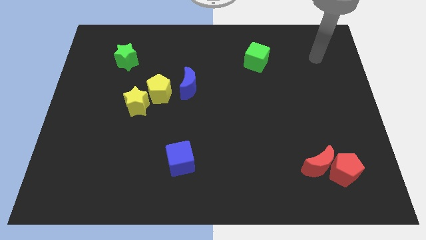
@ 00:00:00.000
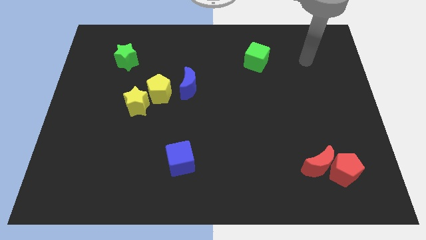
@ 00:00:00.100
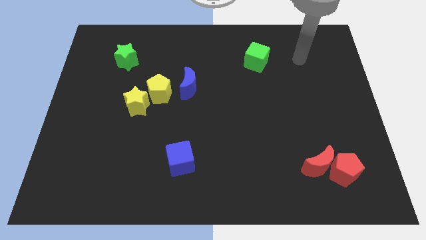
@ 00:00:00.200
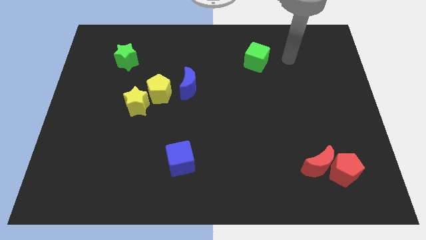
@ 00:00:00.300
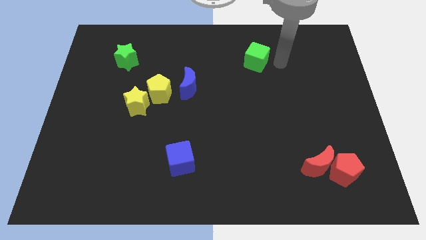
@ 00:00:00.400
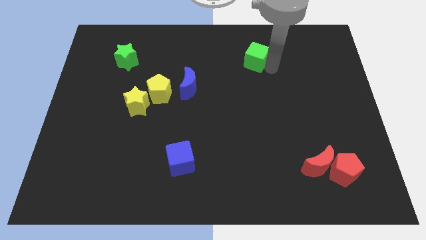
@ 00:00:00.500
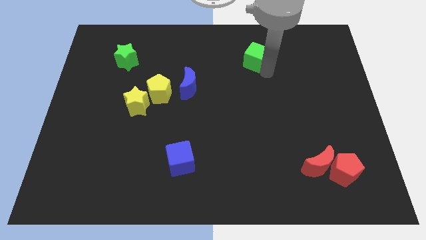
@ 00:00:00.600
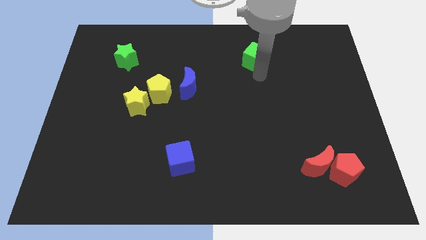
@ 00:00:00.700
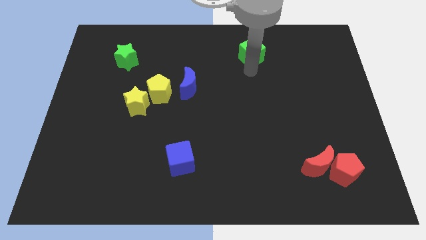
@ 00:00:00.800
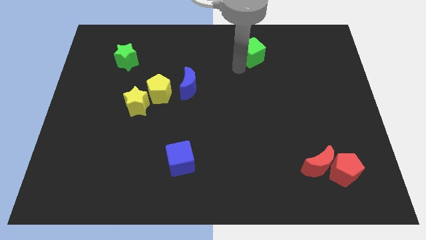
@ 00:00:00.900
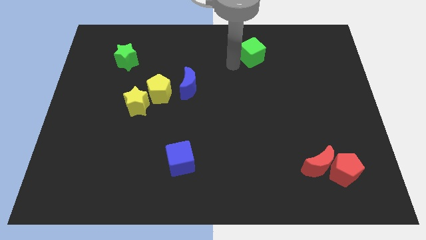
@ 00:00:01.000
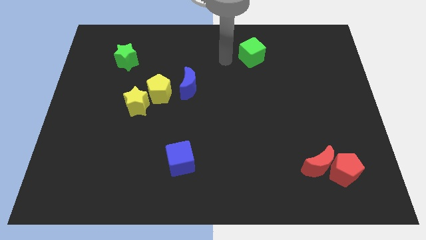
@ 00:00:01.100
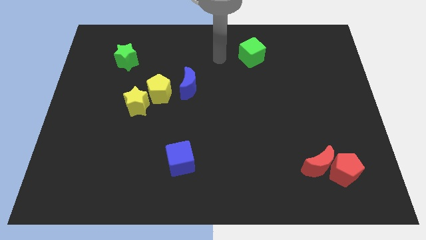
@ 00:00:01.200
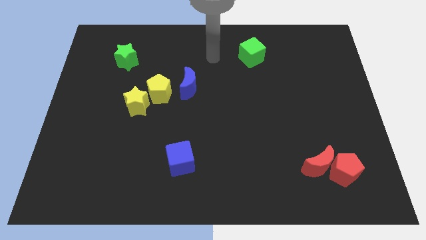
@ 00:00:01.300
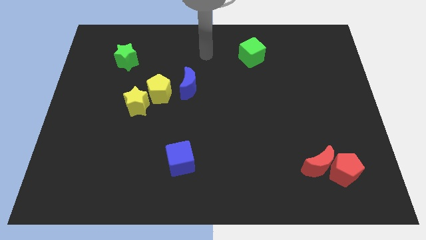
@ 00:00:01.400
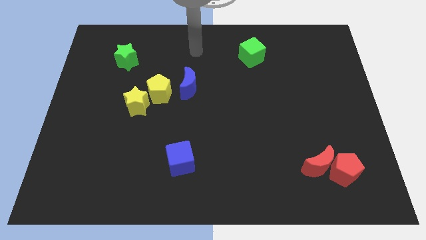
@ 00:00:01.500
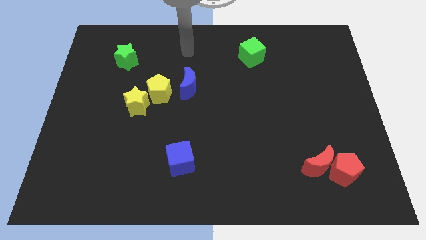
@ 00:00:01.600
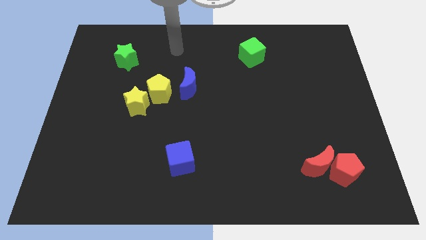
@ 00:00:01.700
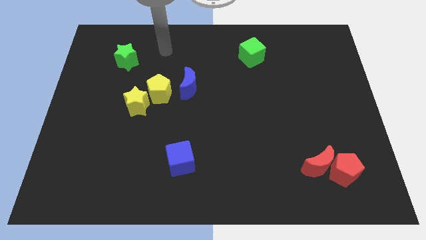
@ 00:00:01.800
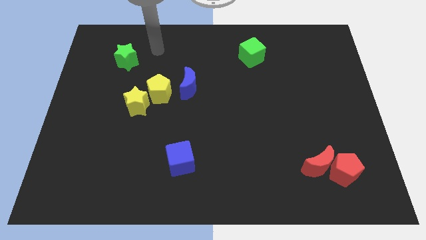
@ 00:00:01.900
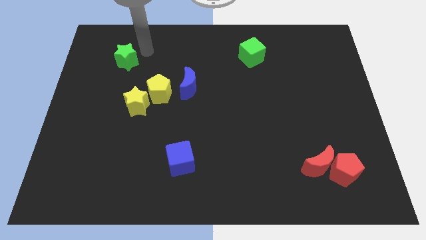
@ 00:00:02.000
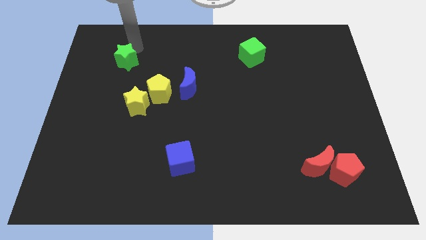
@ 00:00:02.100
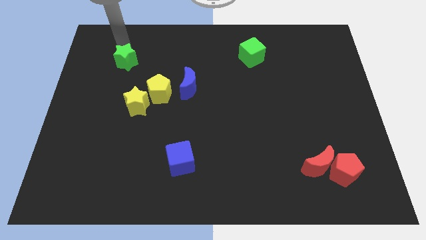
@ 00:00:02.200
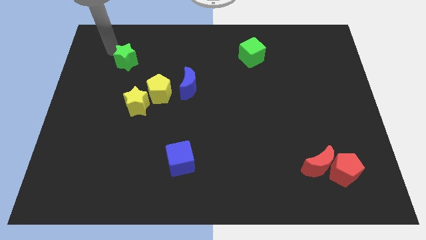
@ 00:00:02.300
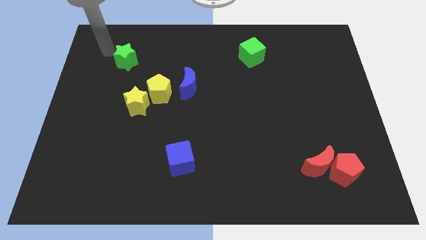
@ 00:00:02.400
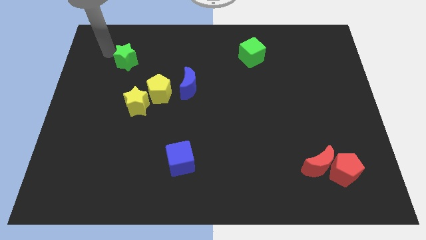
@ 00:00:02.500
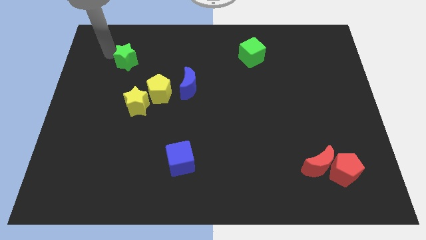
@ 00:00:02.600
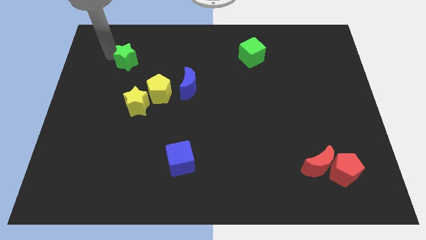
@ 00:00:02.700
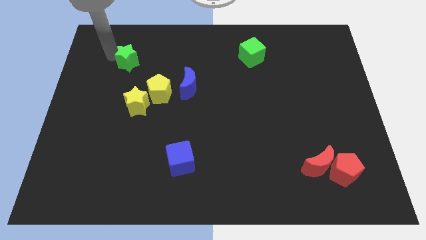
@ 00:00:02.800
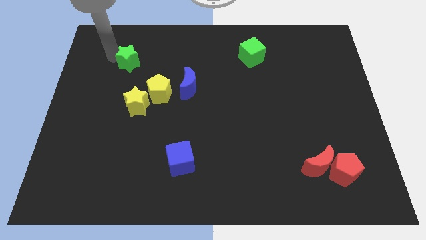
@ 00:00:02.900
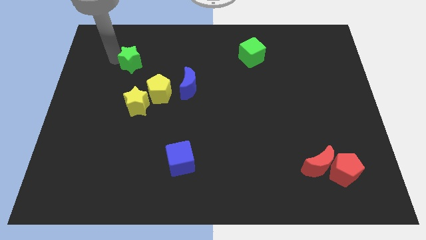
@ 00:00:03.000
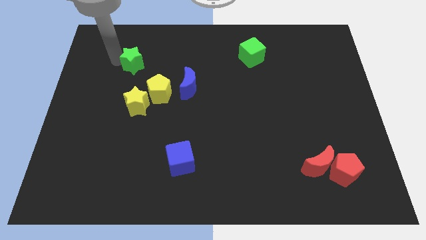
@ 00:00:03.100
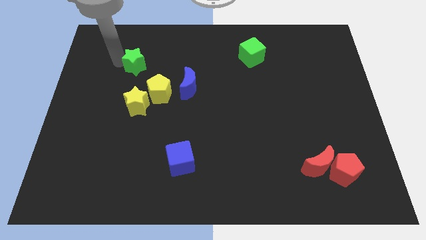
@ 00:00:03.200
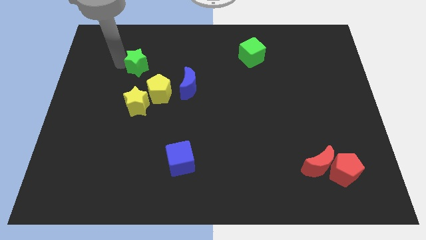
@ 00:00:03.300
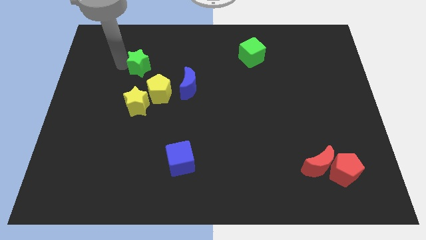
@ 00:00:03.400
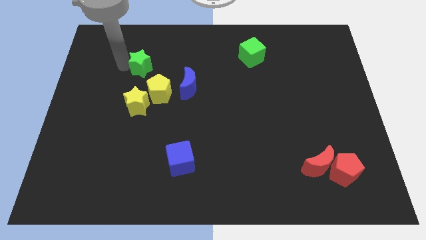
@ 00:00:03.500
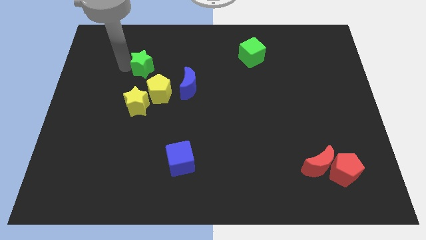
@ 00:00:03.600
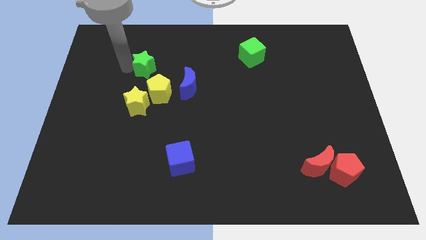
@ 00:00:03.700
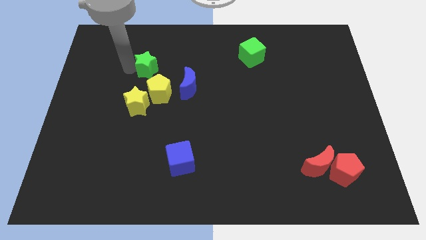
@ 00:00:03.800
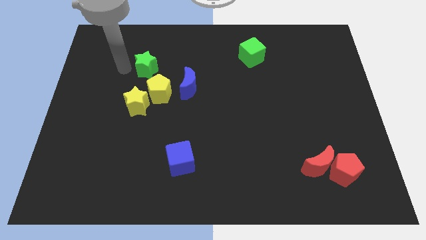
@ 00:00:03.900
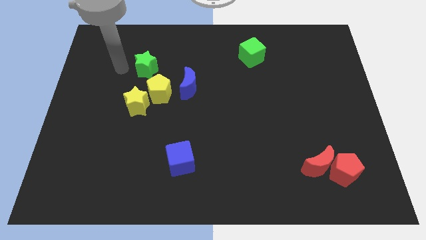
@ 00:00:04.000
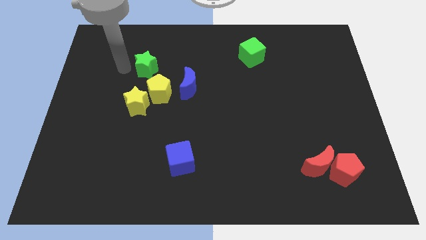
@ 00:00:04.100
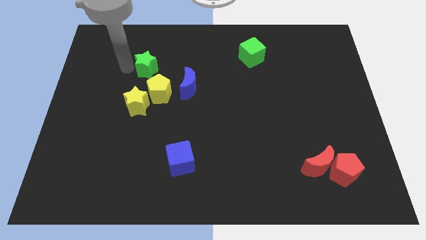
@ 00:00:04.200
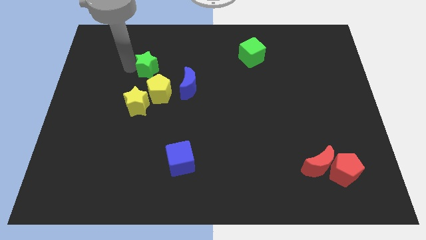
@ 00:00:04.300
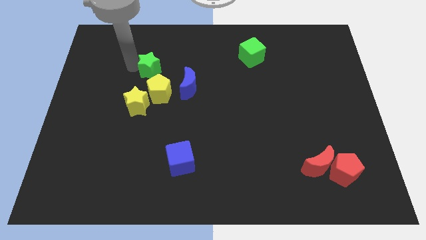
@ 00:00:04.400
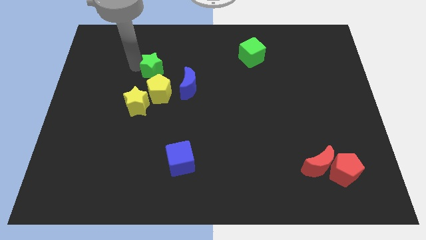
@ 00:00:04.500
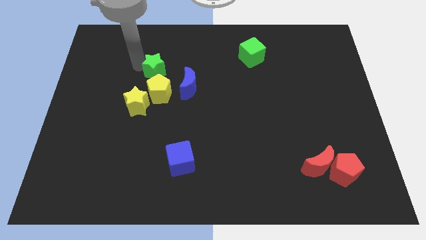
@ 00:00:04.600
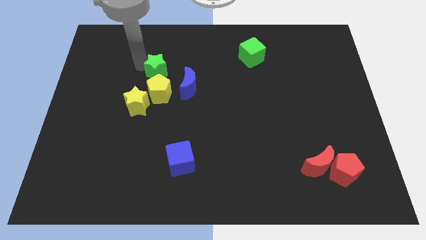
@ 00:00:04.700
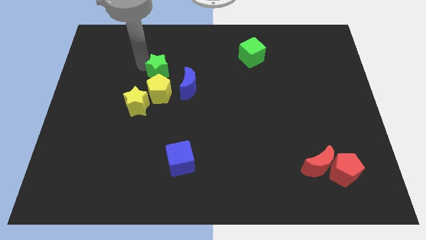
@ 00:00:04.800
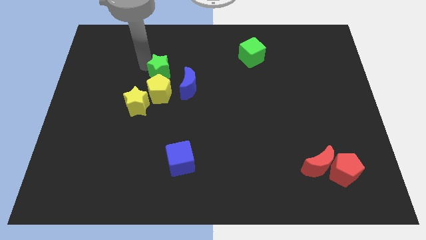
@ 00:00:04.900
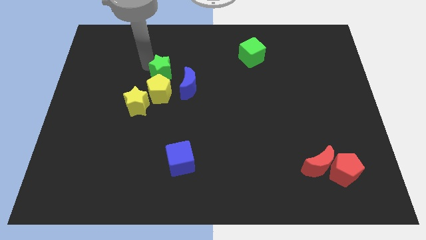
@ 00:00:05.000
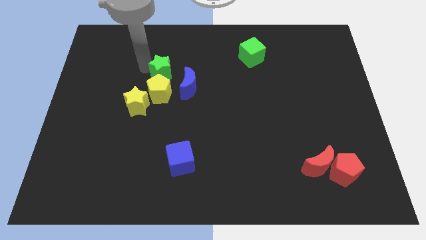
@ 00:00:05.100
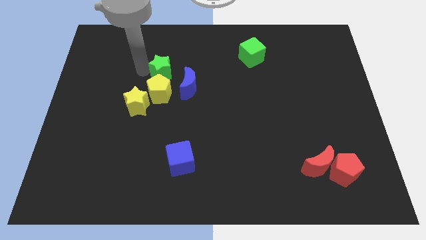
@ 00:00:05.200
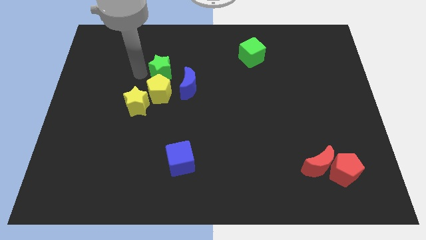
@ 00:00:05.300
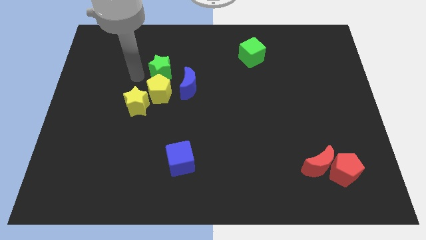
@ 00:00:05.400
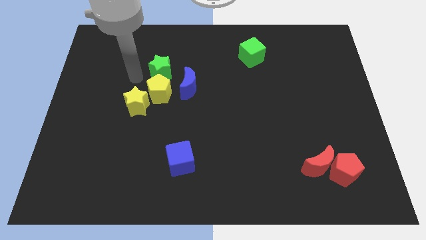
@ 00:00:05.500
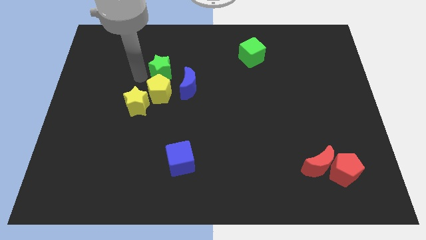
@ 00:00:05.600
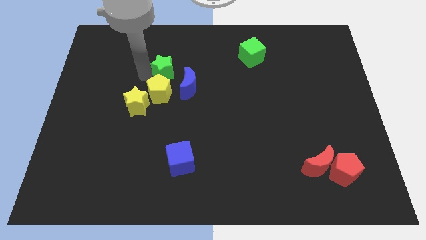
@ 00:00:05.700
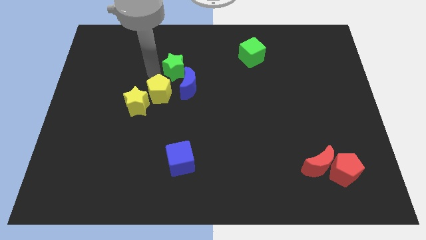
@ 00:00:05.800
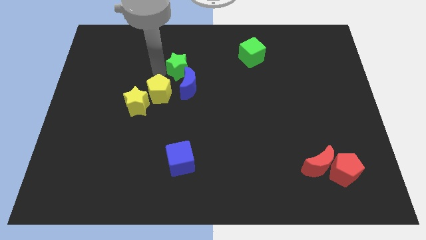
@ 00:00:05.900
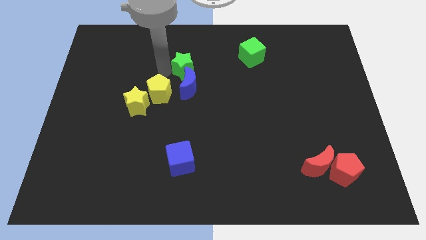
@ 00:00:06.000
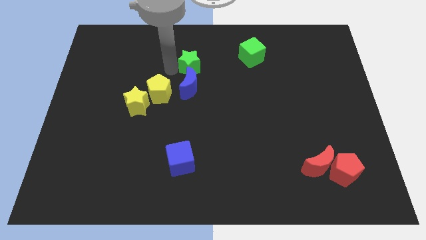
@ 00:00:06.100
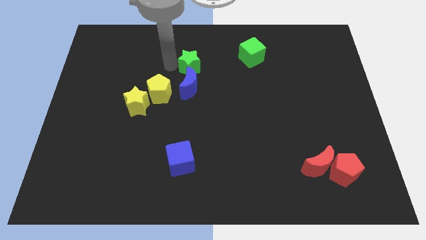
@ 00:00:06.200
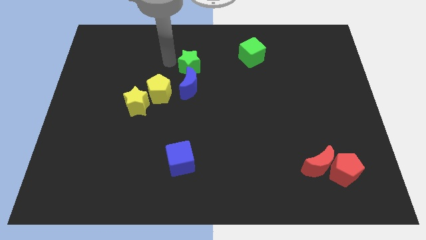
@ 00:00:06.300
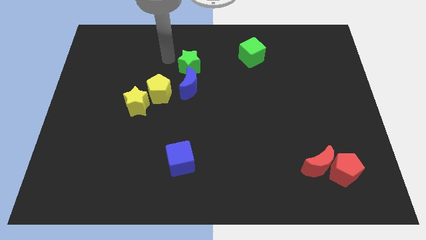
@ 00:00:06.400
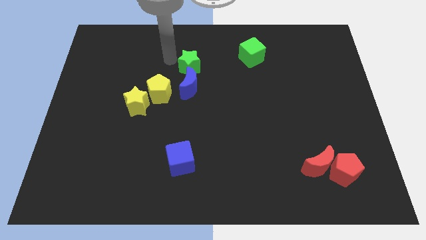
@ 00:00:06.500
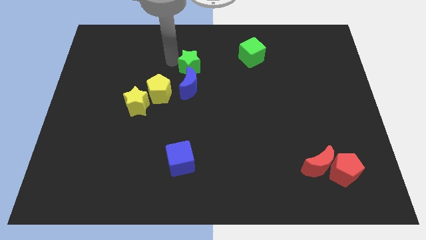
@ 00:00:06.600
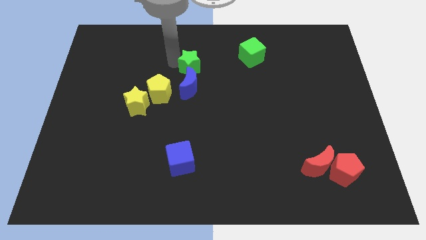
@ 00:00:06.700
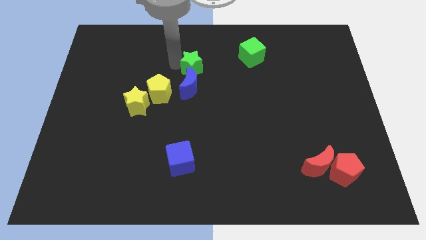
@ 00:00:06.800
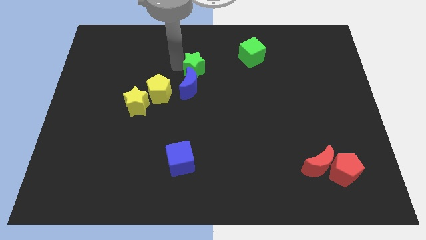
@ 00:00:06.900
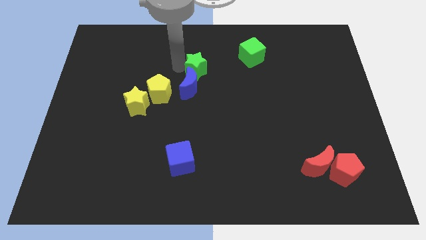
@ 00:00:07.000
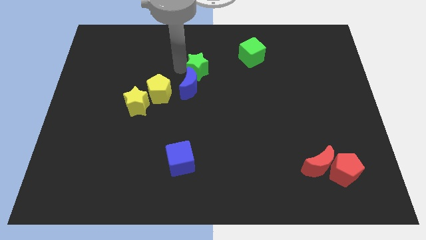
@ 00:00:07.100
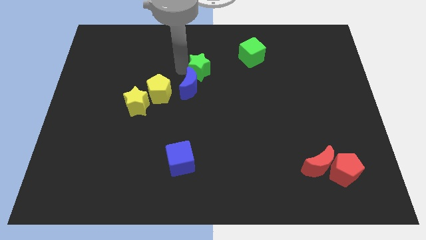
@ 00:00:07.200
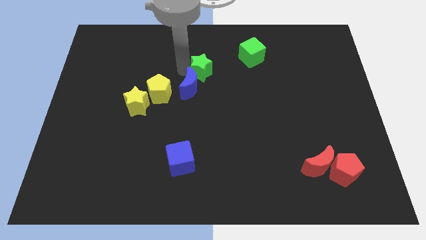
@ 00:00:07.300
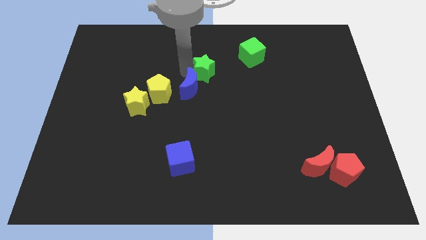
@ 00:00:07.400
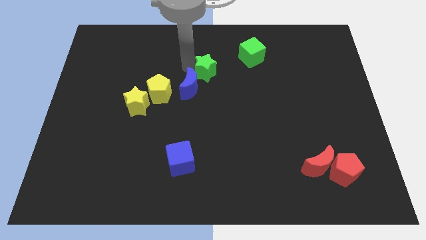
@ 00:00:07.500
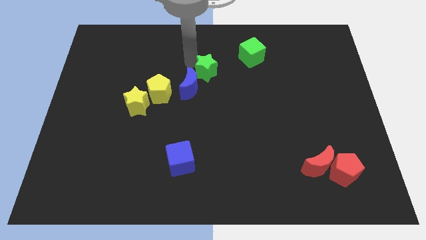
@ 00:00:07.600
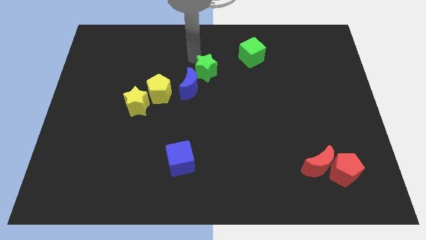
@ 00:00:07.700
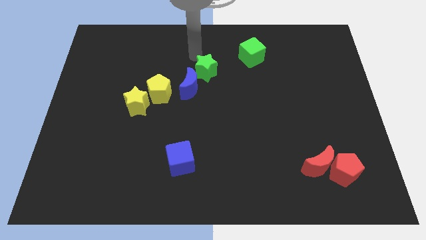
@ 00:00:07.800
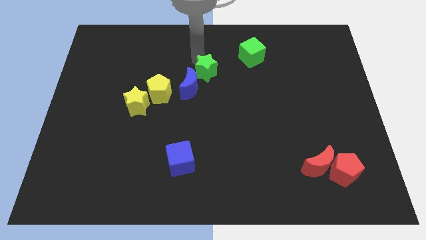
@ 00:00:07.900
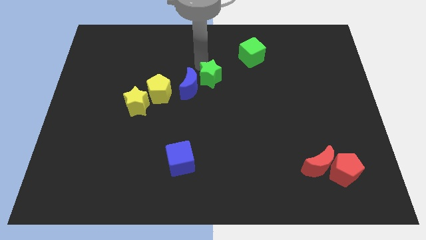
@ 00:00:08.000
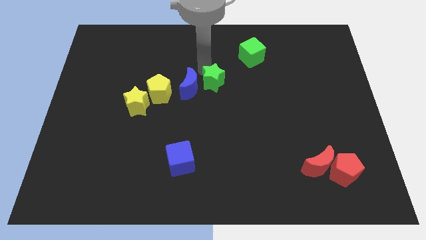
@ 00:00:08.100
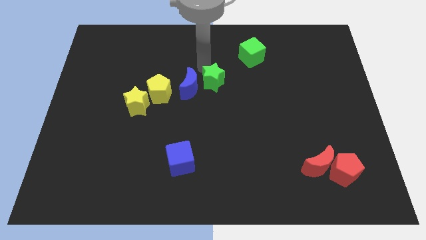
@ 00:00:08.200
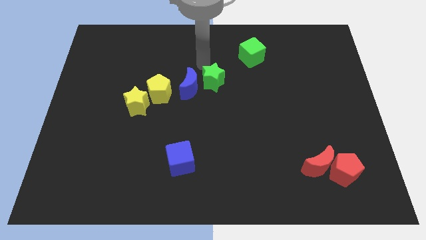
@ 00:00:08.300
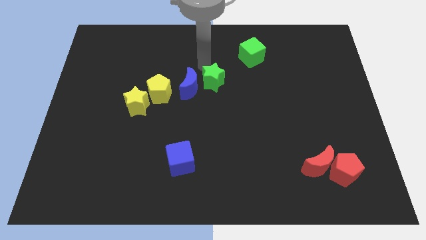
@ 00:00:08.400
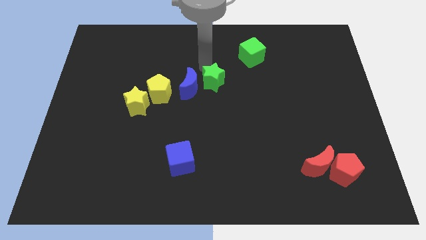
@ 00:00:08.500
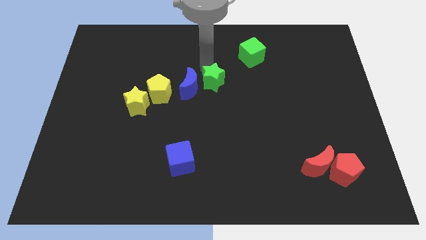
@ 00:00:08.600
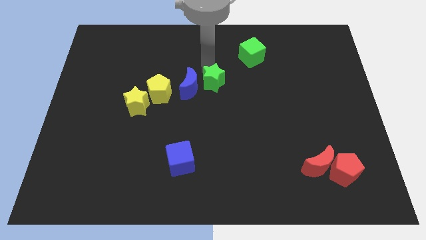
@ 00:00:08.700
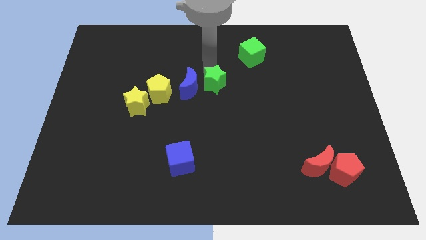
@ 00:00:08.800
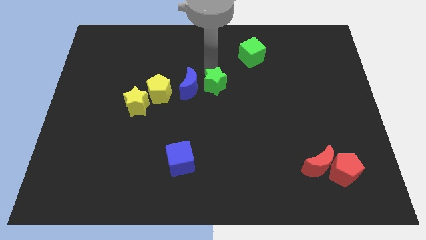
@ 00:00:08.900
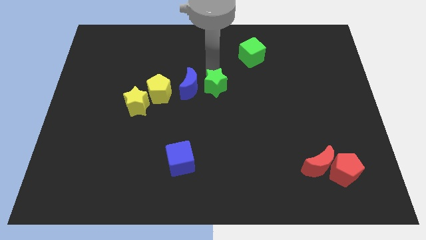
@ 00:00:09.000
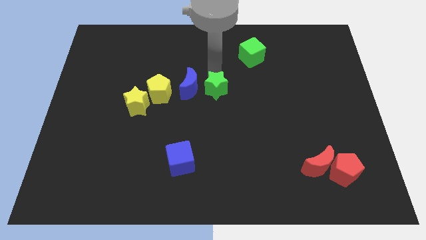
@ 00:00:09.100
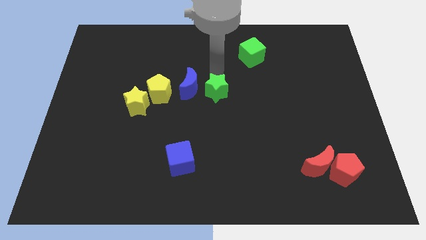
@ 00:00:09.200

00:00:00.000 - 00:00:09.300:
move the green star downwards and right diagonally
